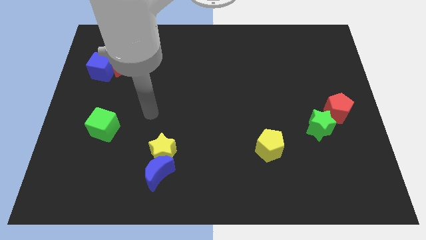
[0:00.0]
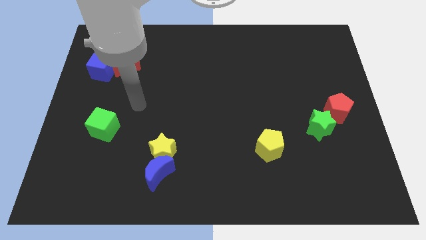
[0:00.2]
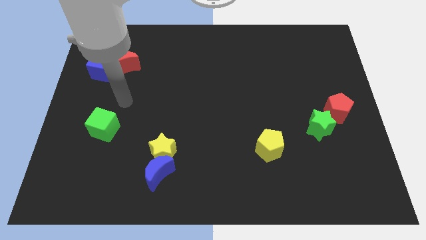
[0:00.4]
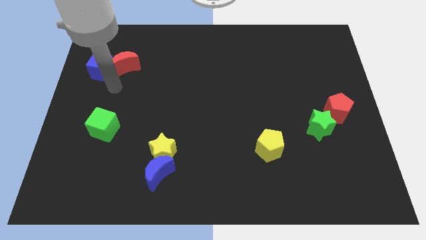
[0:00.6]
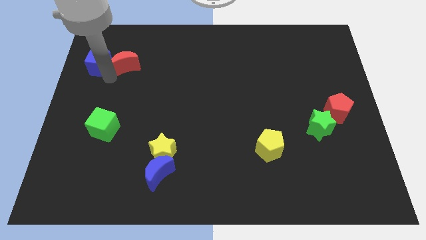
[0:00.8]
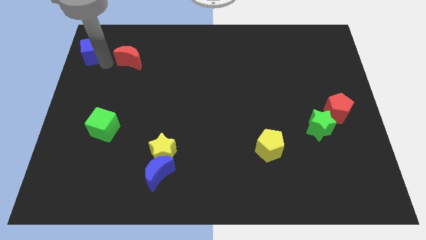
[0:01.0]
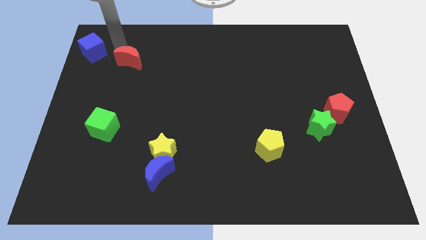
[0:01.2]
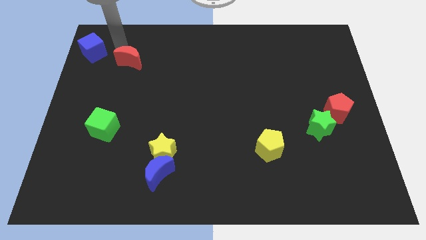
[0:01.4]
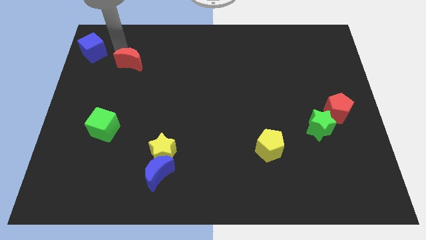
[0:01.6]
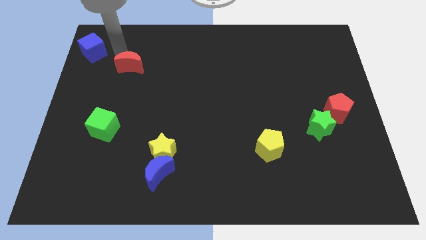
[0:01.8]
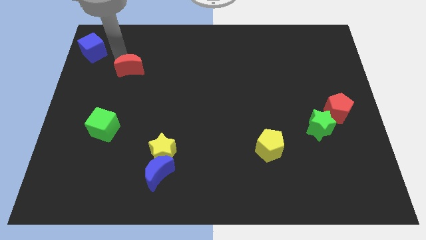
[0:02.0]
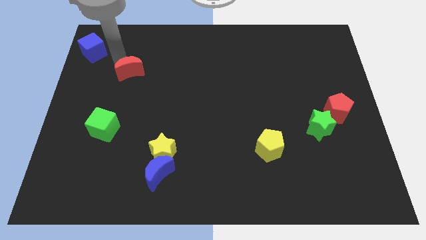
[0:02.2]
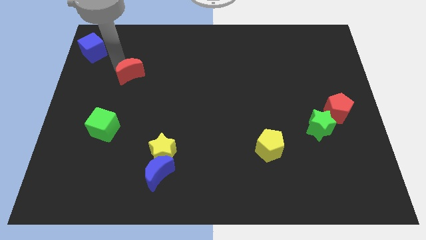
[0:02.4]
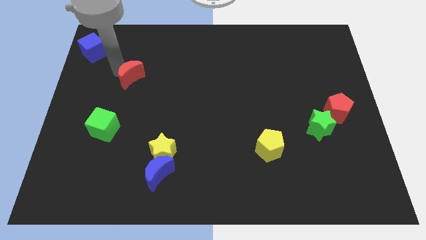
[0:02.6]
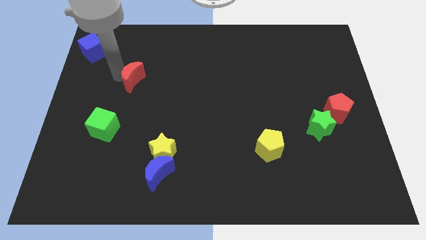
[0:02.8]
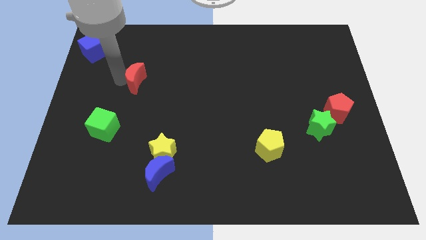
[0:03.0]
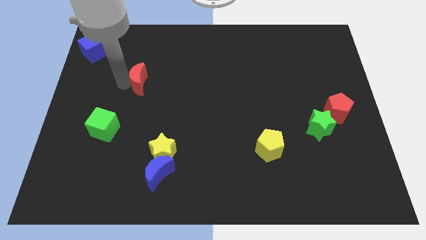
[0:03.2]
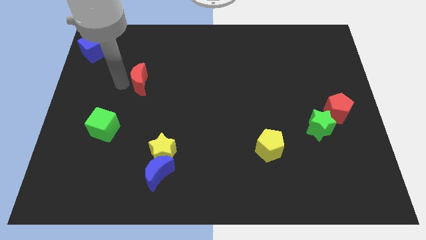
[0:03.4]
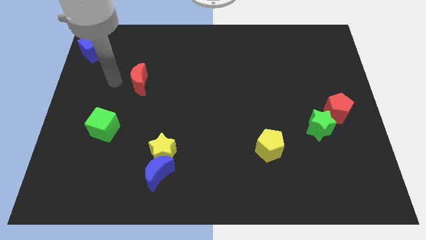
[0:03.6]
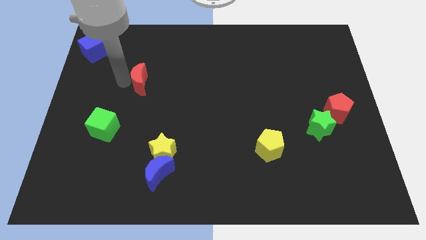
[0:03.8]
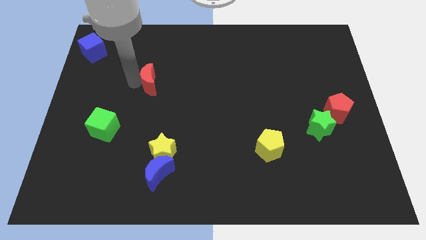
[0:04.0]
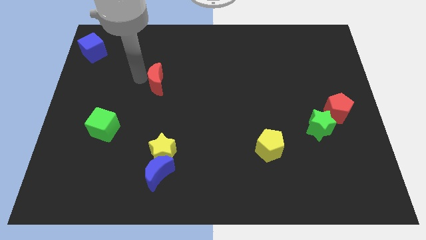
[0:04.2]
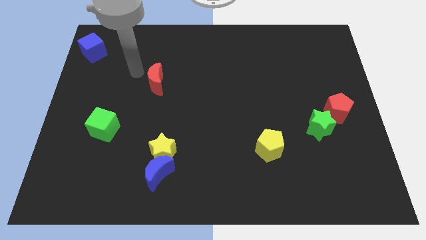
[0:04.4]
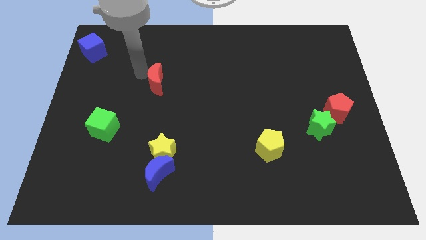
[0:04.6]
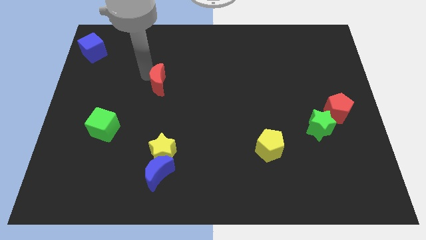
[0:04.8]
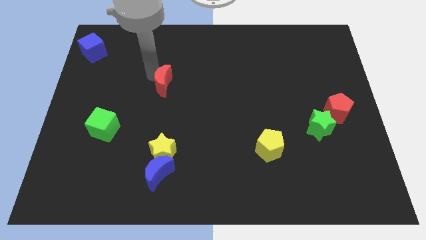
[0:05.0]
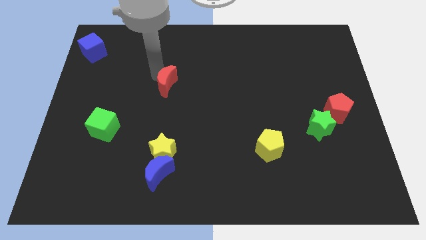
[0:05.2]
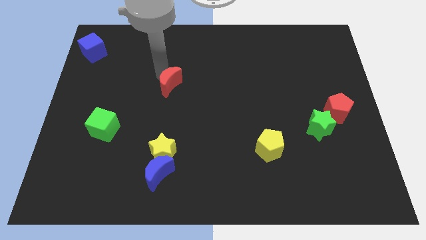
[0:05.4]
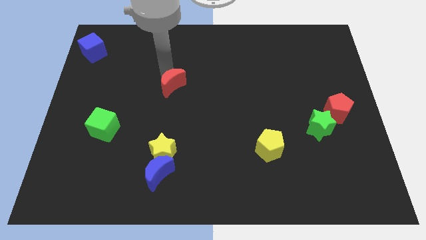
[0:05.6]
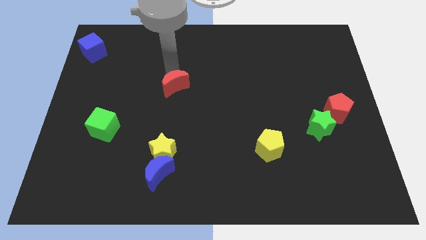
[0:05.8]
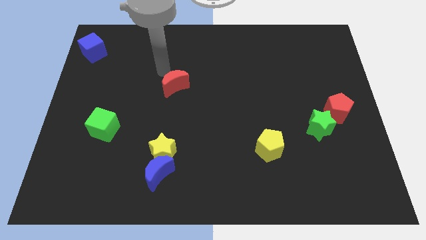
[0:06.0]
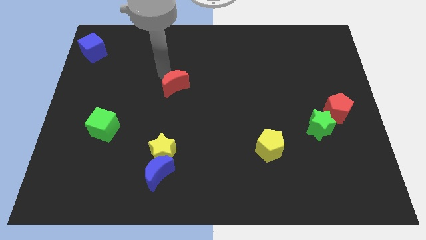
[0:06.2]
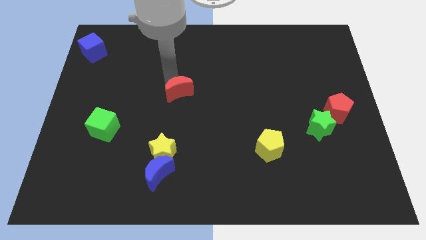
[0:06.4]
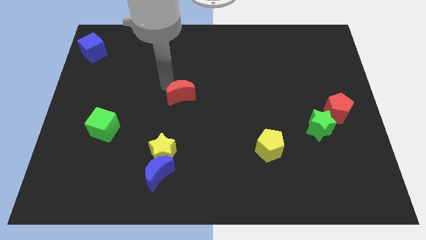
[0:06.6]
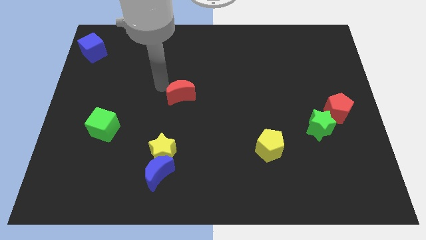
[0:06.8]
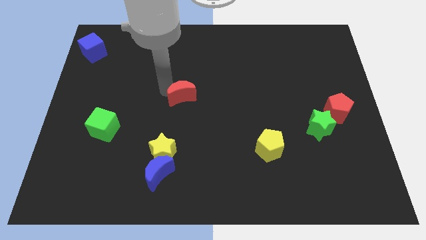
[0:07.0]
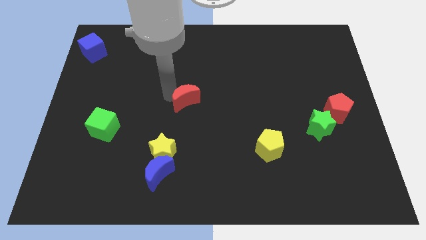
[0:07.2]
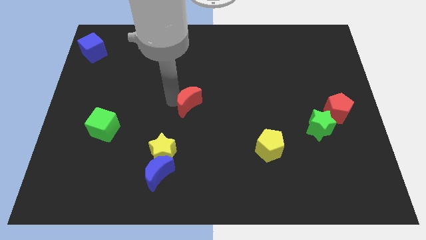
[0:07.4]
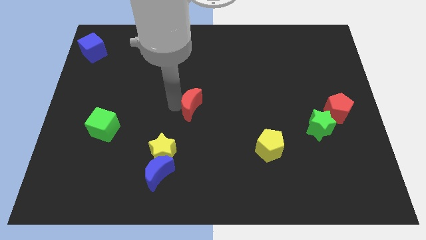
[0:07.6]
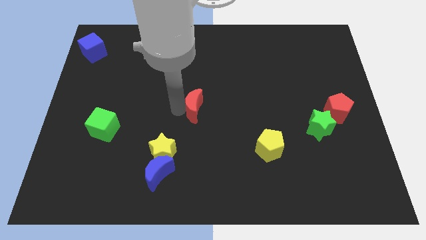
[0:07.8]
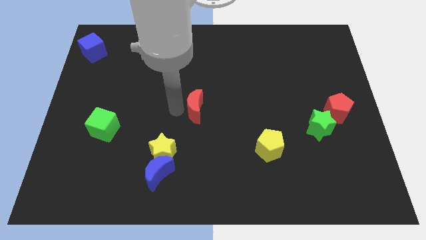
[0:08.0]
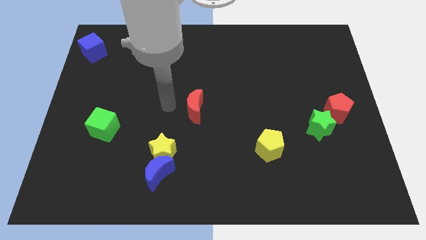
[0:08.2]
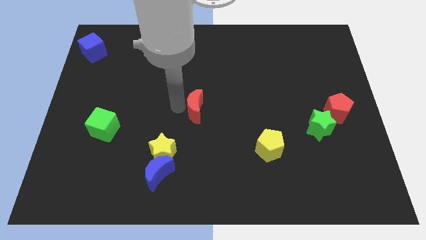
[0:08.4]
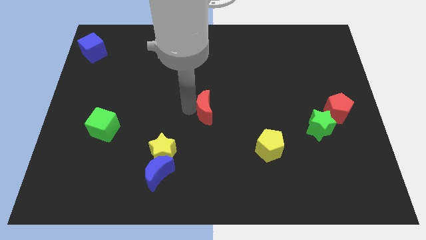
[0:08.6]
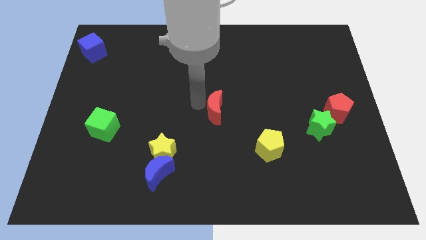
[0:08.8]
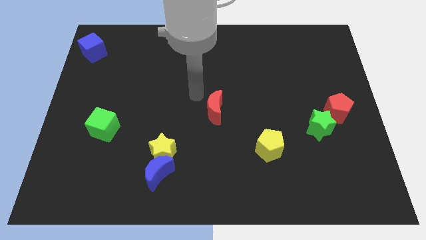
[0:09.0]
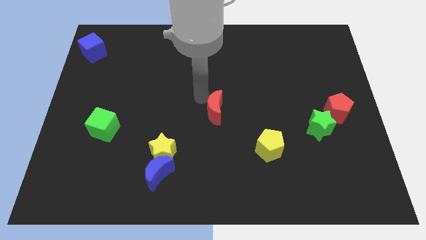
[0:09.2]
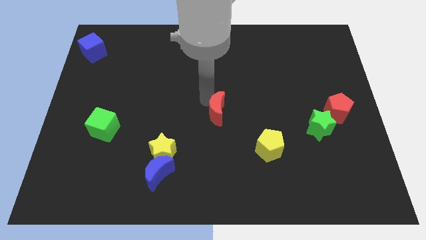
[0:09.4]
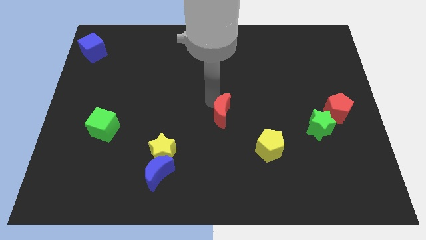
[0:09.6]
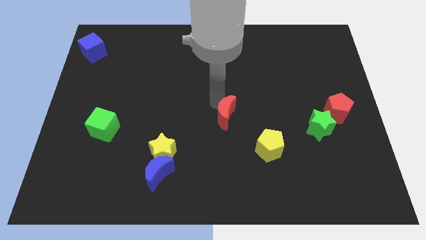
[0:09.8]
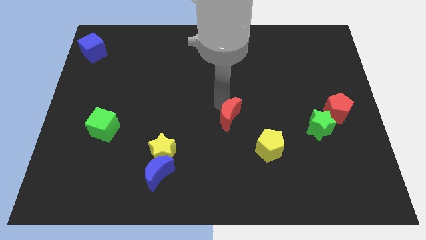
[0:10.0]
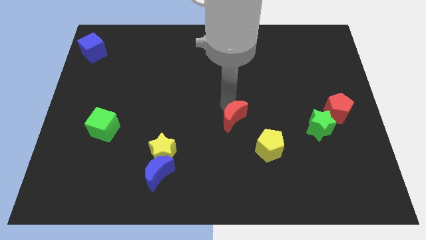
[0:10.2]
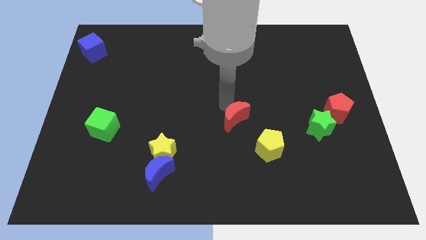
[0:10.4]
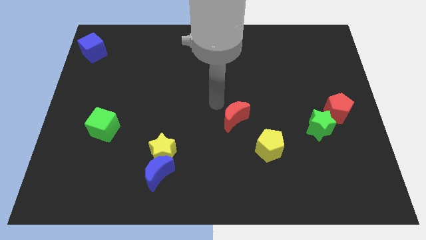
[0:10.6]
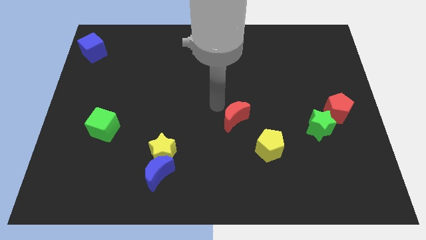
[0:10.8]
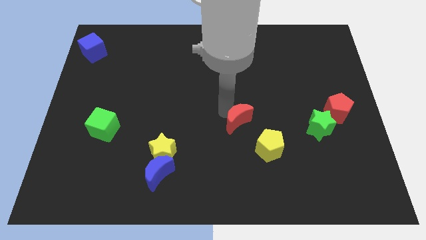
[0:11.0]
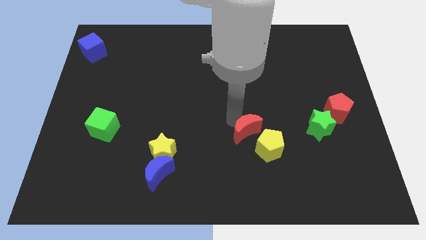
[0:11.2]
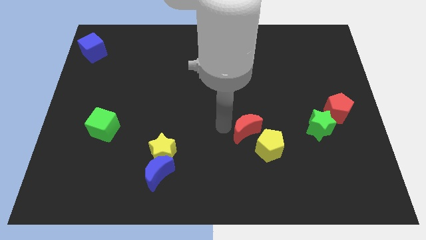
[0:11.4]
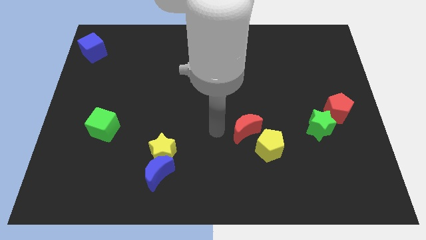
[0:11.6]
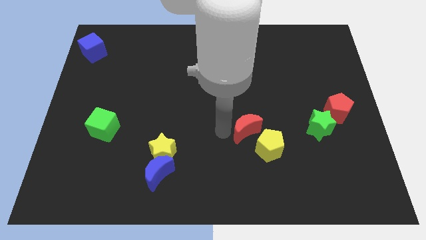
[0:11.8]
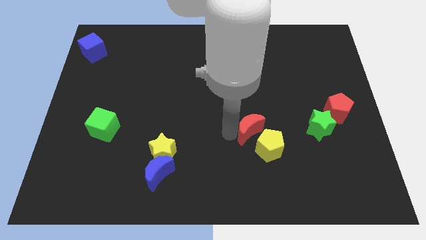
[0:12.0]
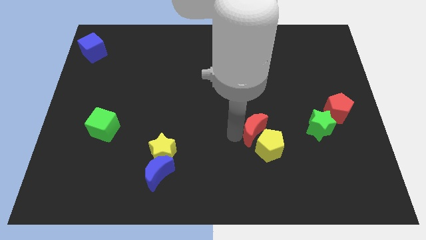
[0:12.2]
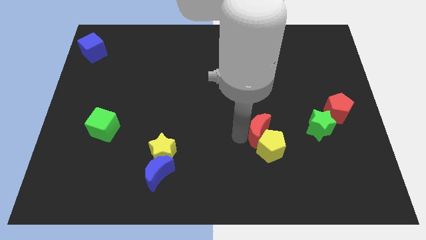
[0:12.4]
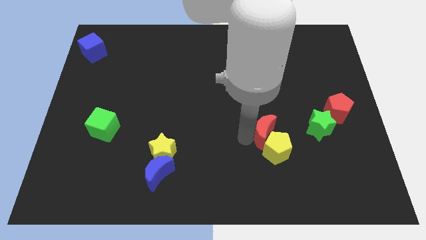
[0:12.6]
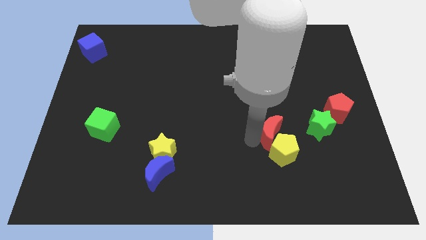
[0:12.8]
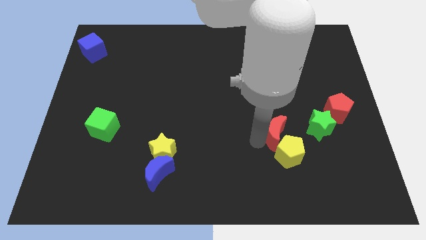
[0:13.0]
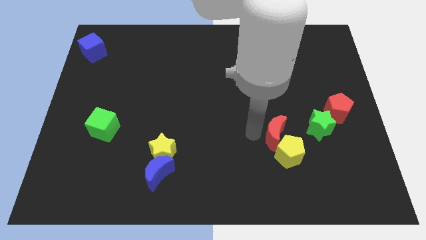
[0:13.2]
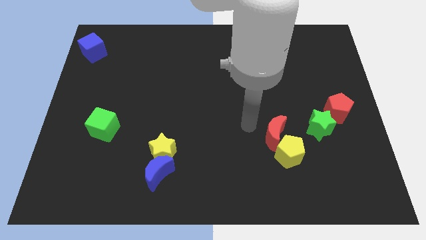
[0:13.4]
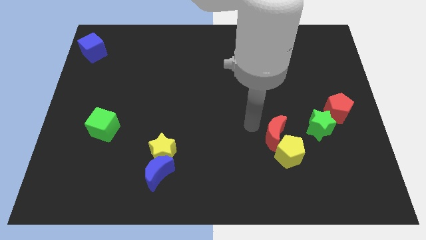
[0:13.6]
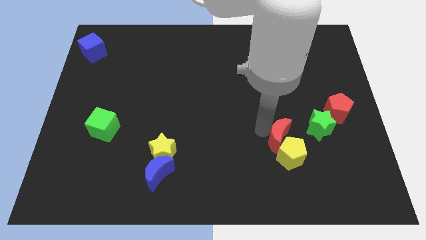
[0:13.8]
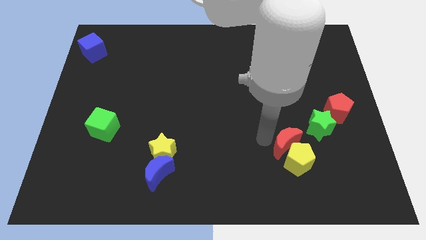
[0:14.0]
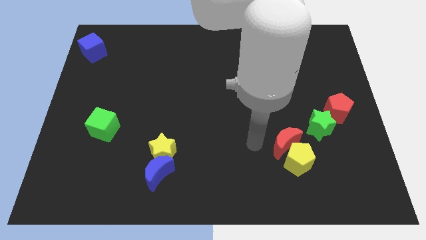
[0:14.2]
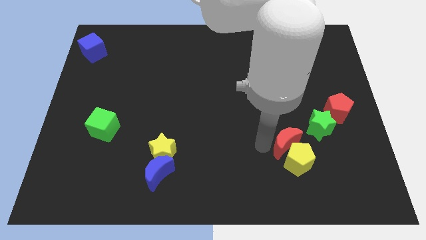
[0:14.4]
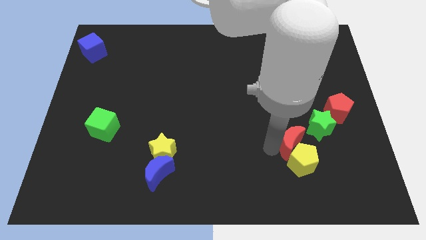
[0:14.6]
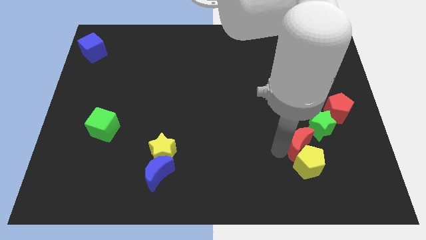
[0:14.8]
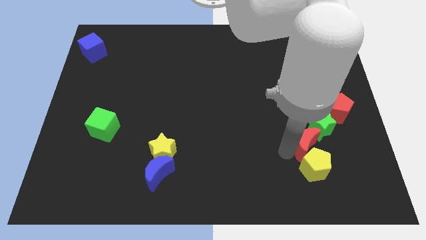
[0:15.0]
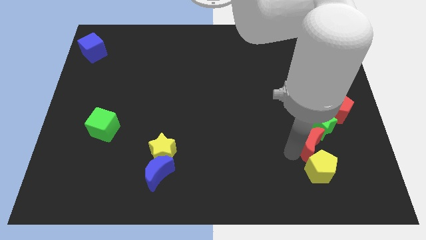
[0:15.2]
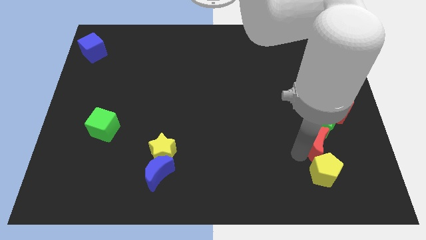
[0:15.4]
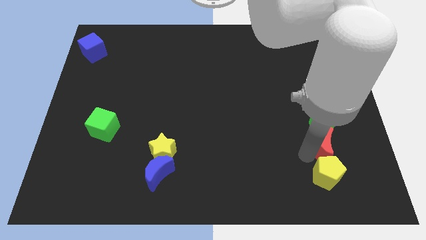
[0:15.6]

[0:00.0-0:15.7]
put the red moon diagonally down and to the right of the green star
